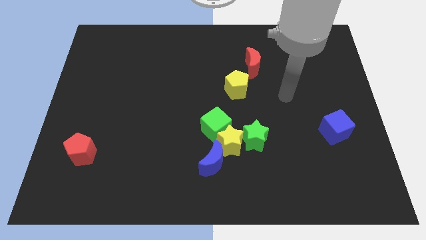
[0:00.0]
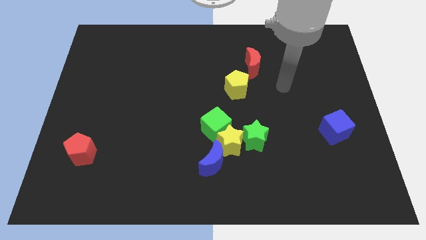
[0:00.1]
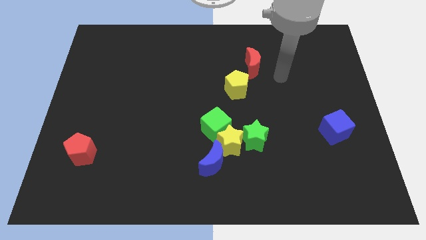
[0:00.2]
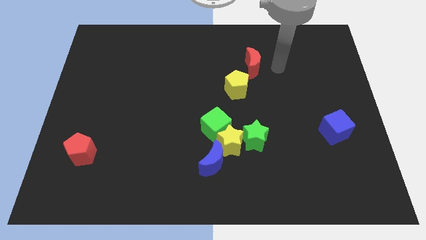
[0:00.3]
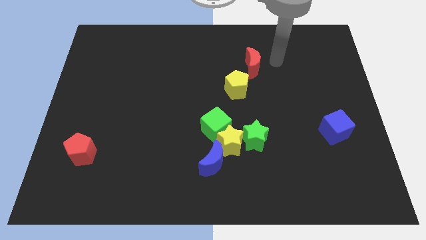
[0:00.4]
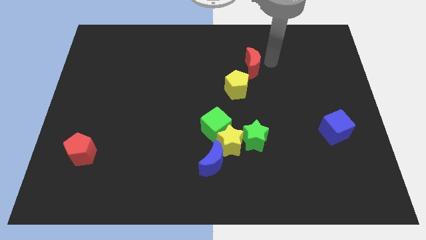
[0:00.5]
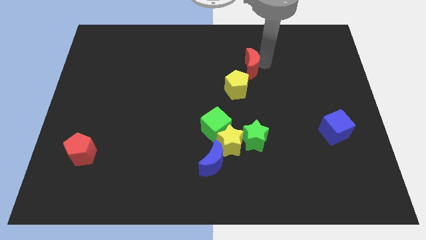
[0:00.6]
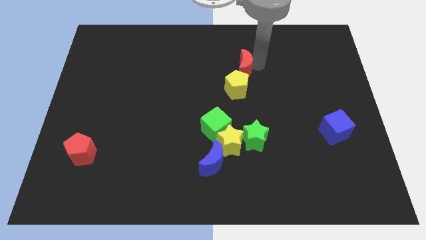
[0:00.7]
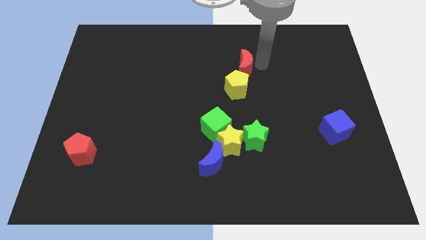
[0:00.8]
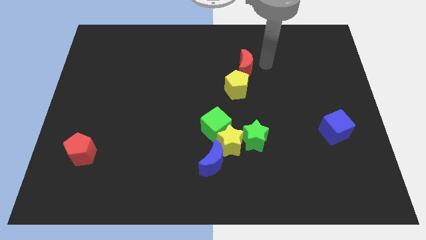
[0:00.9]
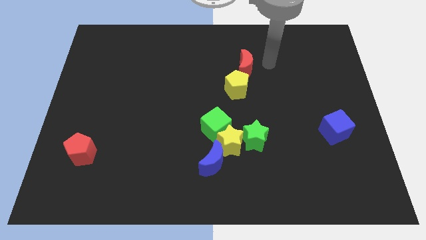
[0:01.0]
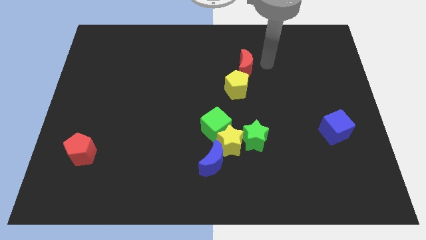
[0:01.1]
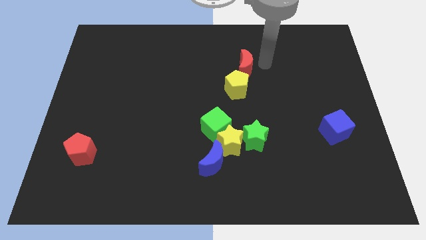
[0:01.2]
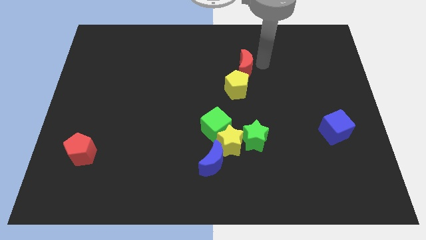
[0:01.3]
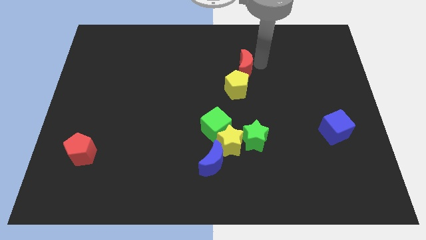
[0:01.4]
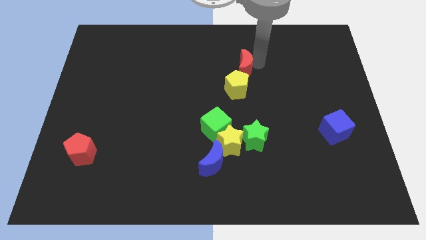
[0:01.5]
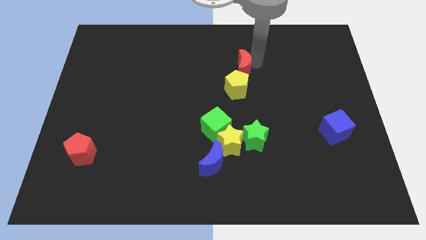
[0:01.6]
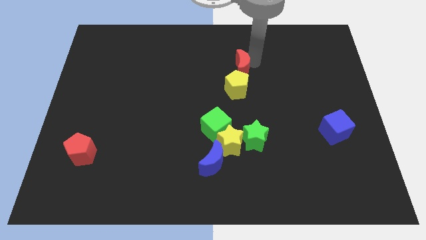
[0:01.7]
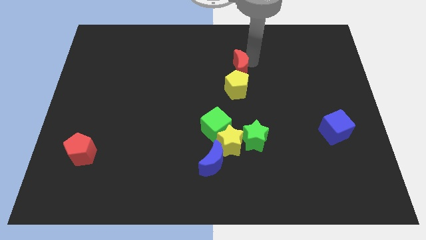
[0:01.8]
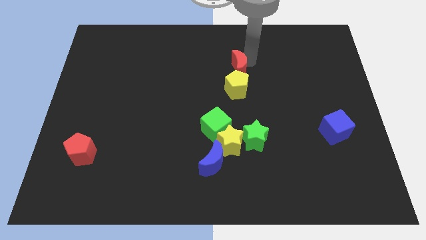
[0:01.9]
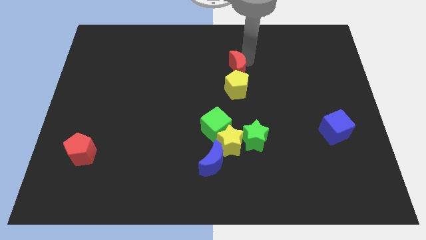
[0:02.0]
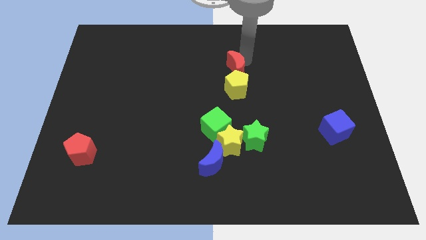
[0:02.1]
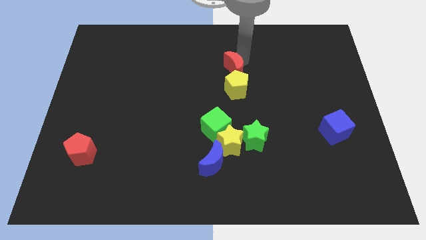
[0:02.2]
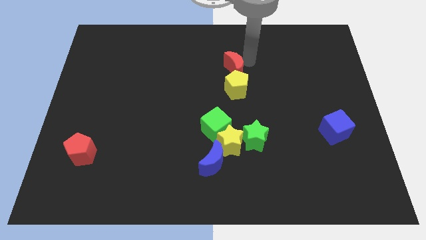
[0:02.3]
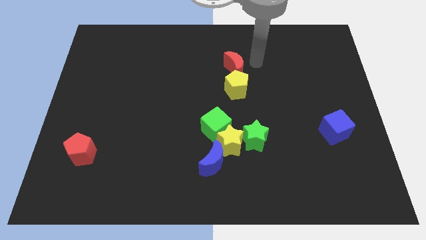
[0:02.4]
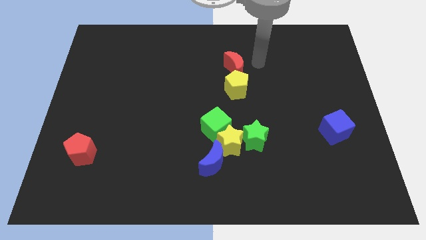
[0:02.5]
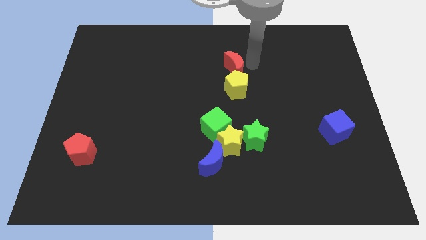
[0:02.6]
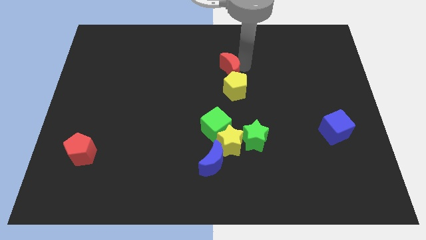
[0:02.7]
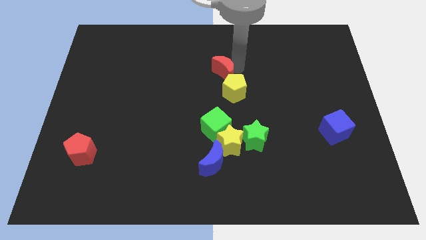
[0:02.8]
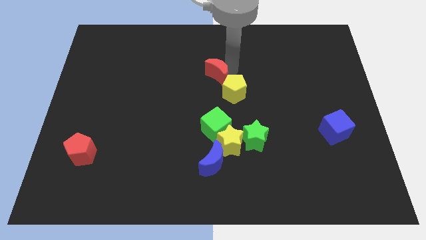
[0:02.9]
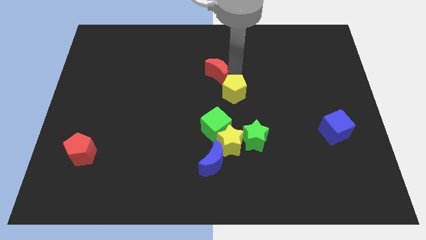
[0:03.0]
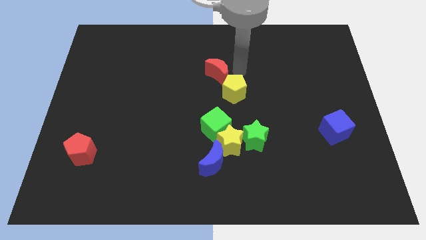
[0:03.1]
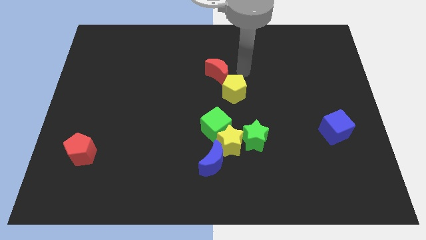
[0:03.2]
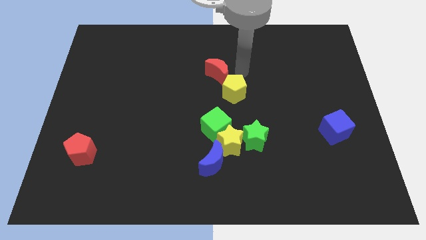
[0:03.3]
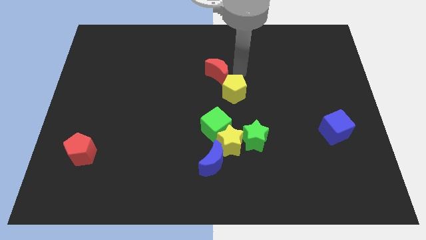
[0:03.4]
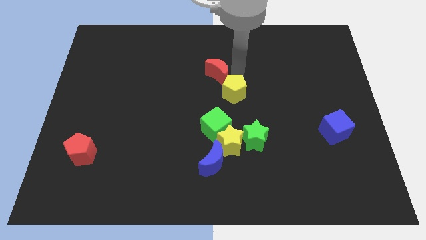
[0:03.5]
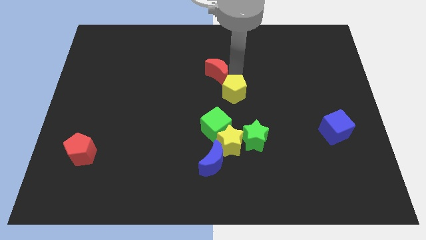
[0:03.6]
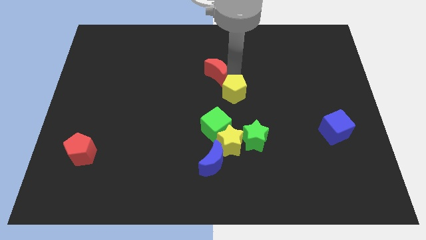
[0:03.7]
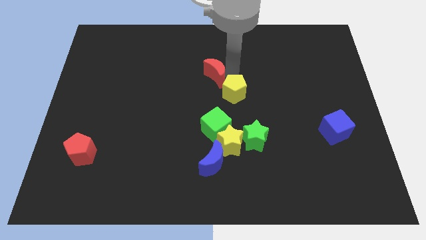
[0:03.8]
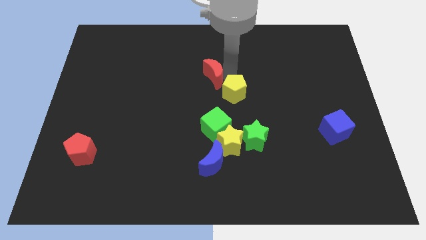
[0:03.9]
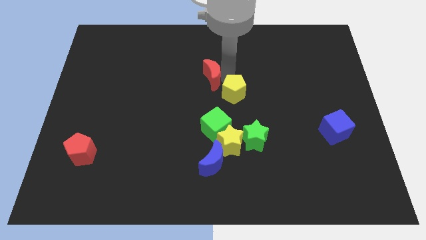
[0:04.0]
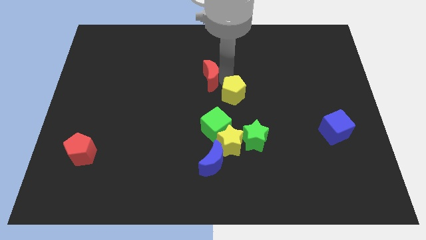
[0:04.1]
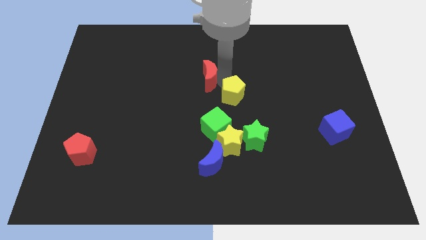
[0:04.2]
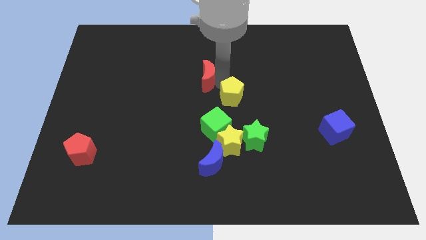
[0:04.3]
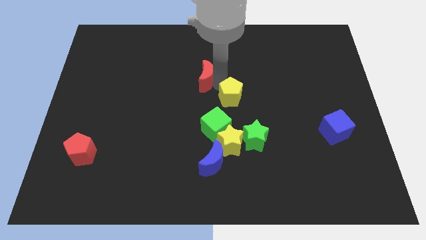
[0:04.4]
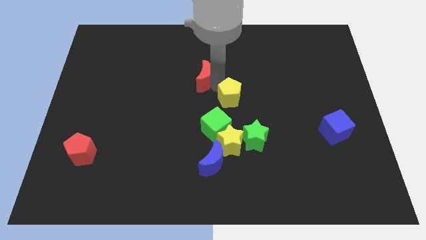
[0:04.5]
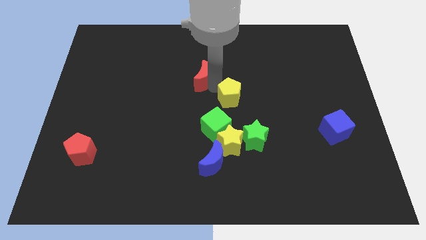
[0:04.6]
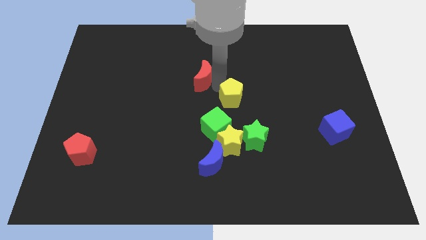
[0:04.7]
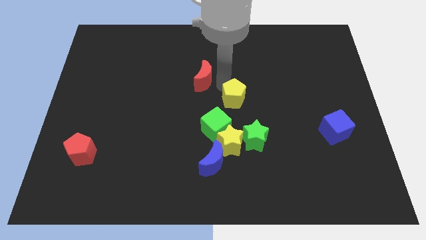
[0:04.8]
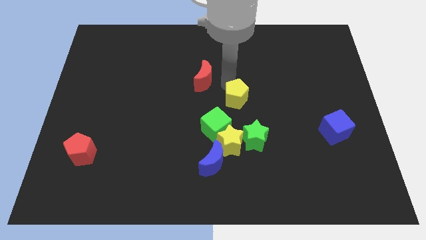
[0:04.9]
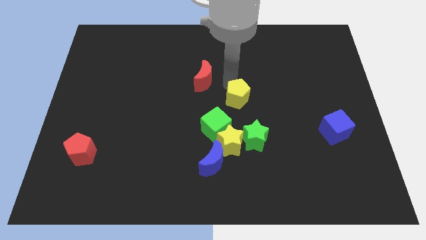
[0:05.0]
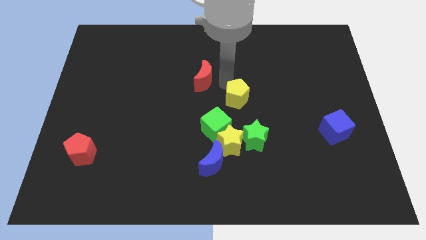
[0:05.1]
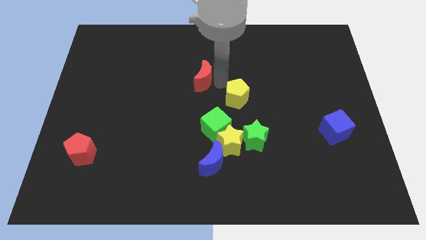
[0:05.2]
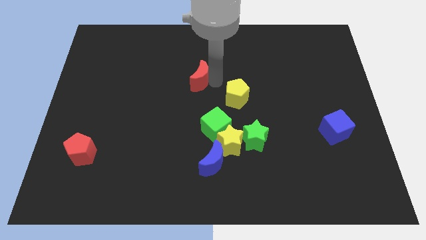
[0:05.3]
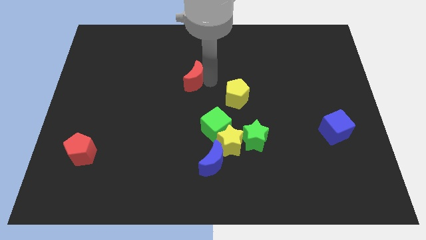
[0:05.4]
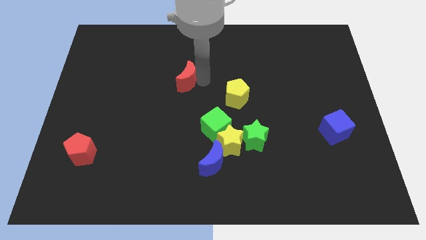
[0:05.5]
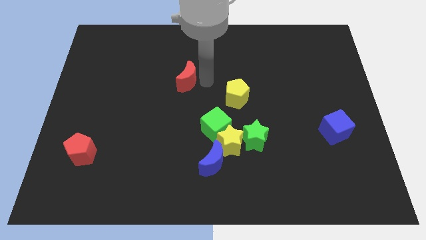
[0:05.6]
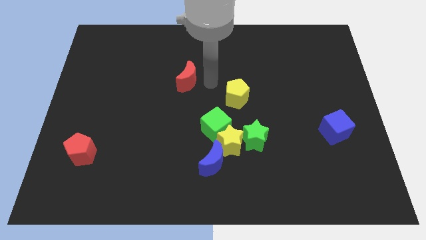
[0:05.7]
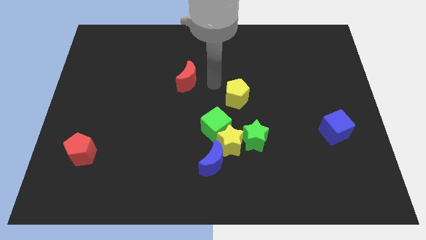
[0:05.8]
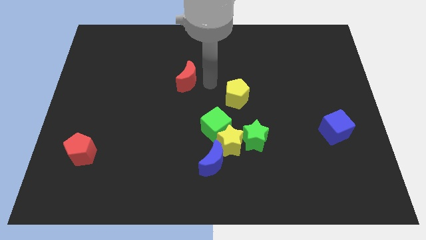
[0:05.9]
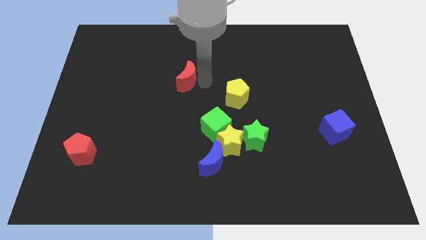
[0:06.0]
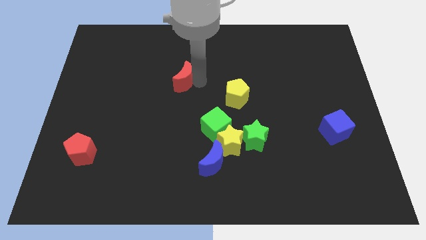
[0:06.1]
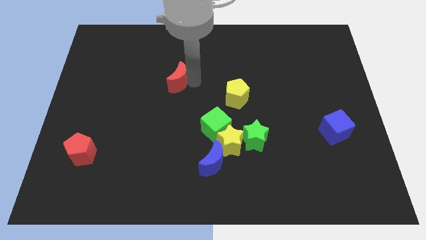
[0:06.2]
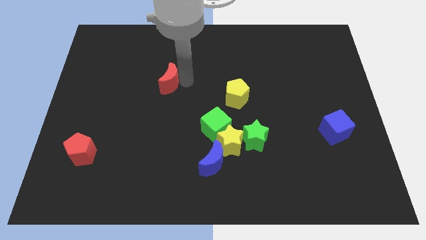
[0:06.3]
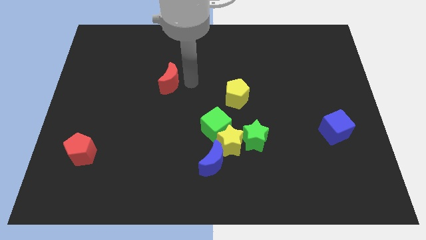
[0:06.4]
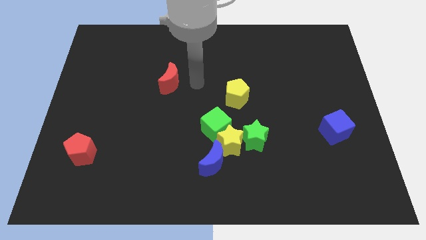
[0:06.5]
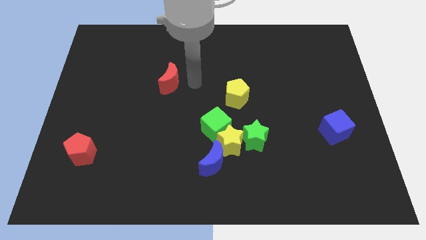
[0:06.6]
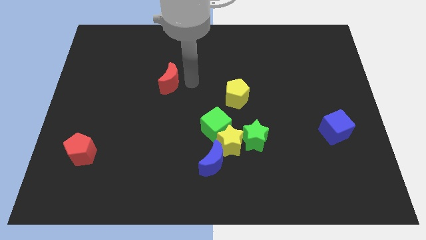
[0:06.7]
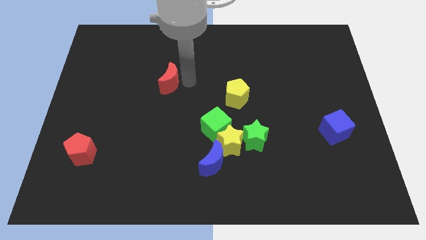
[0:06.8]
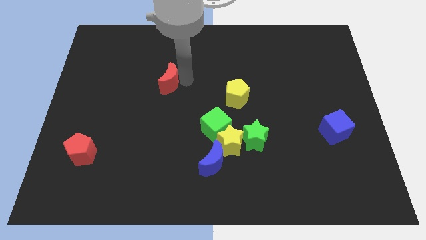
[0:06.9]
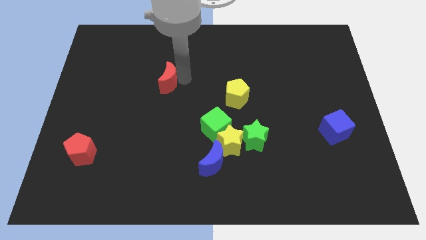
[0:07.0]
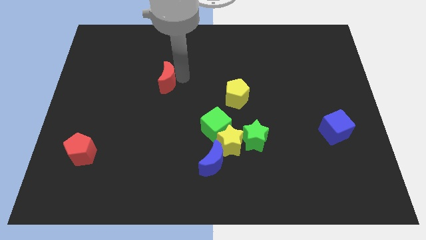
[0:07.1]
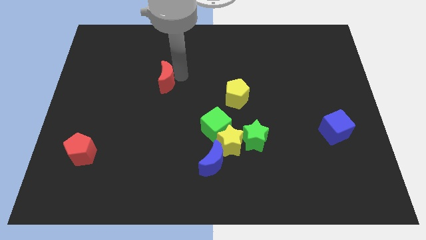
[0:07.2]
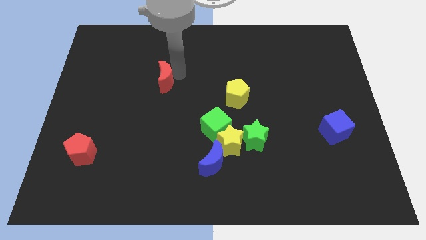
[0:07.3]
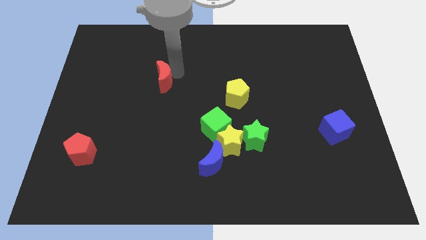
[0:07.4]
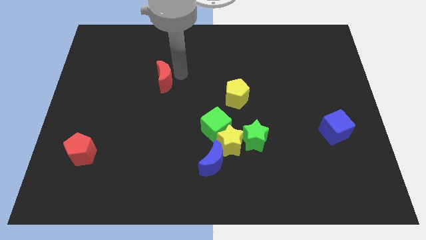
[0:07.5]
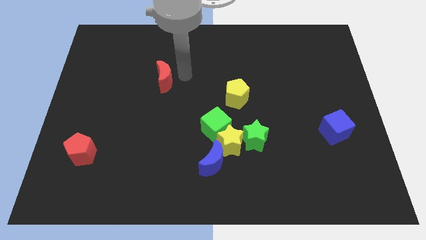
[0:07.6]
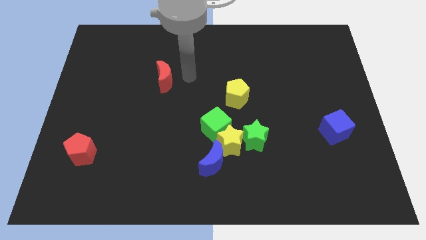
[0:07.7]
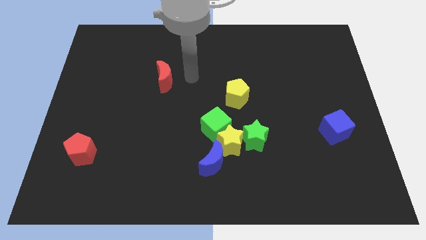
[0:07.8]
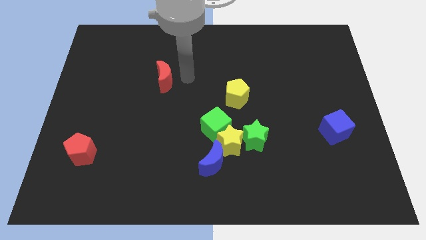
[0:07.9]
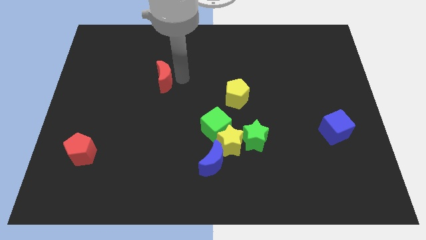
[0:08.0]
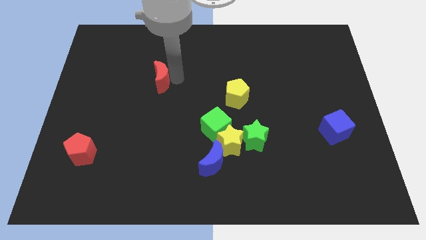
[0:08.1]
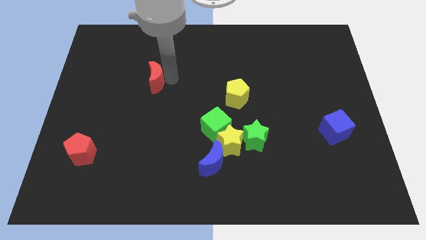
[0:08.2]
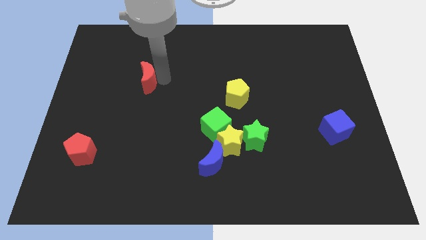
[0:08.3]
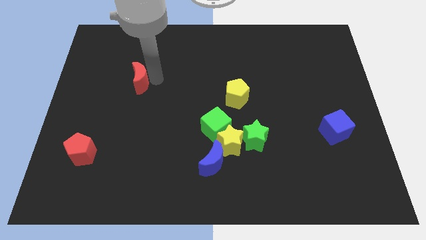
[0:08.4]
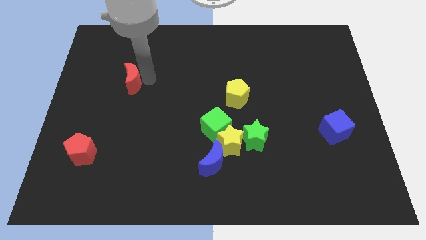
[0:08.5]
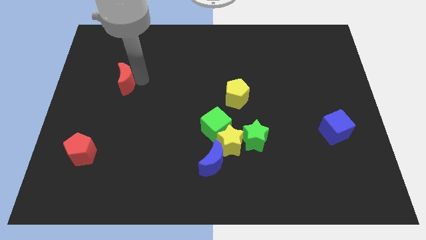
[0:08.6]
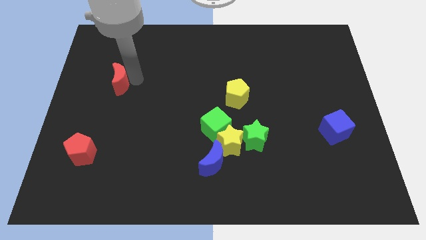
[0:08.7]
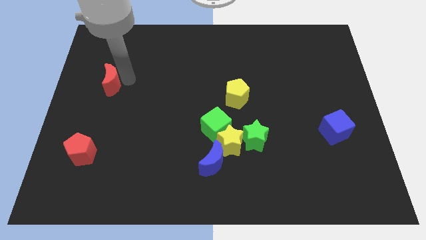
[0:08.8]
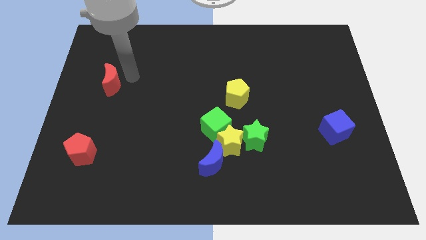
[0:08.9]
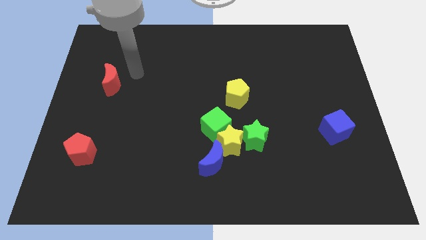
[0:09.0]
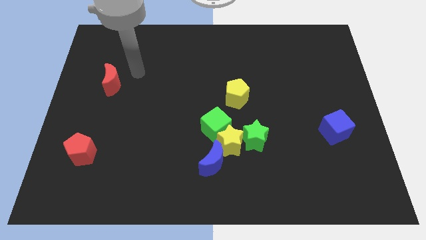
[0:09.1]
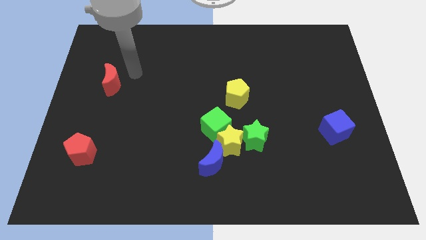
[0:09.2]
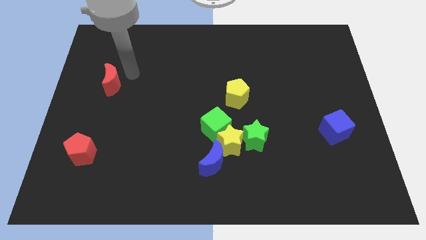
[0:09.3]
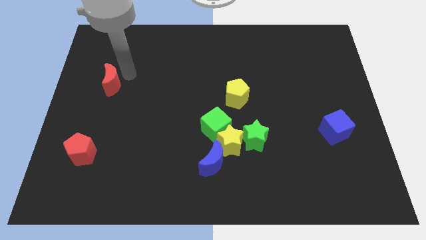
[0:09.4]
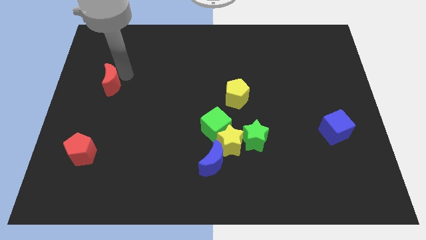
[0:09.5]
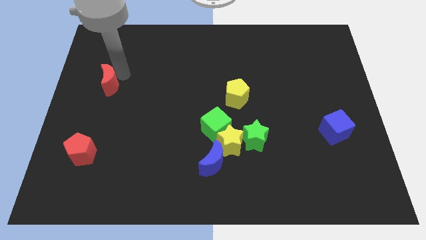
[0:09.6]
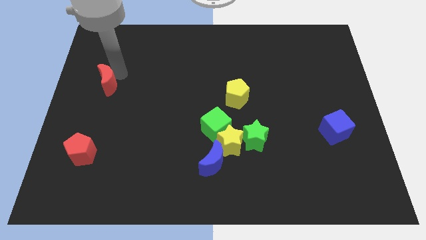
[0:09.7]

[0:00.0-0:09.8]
put the red moon to the left side
